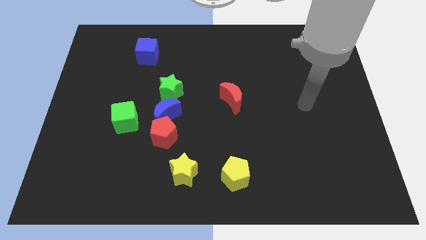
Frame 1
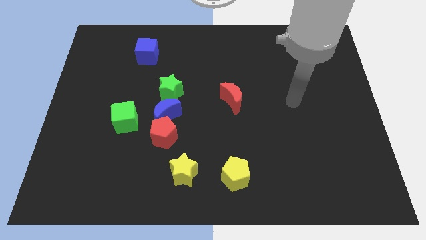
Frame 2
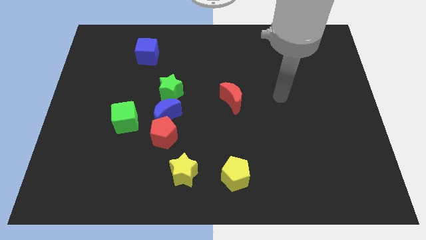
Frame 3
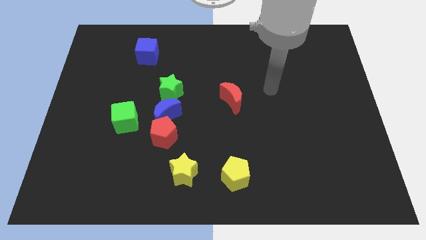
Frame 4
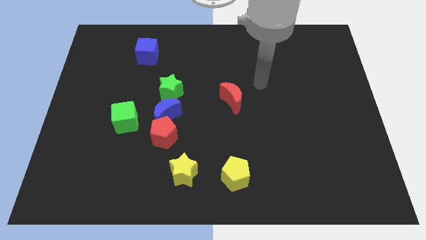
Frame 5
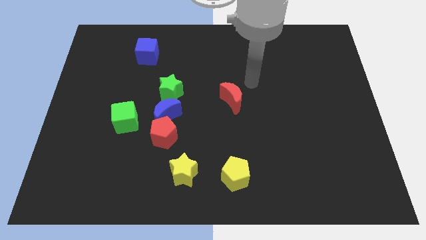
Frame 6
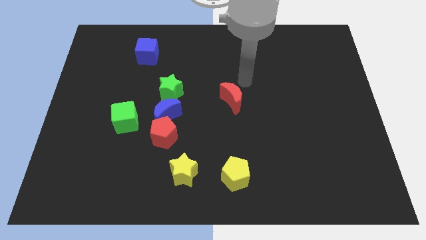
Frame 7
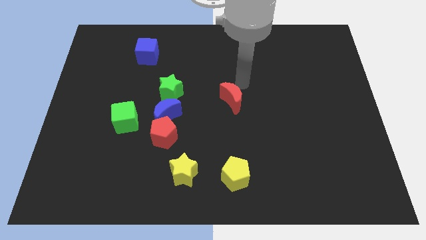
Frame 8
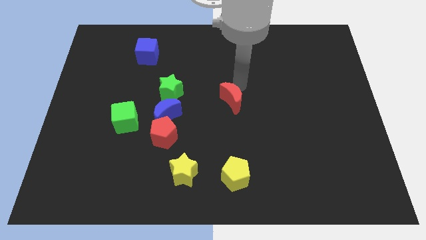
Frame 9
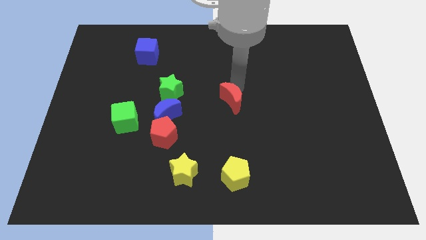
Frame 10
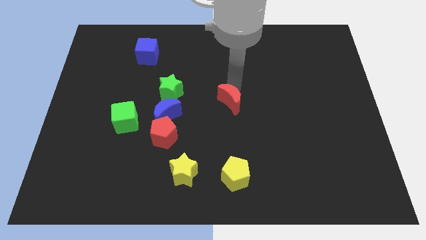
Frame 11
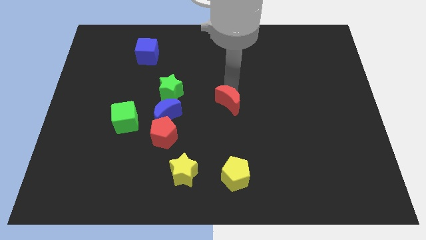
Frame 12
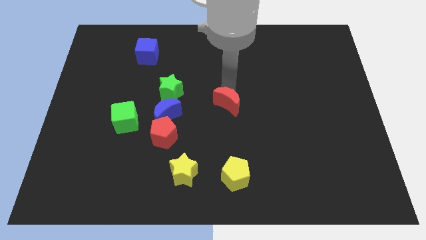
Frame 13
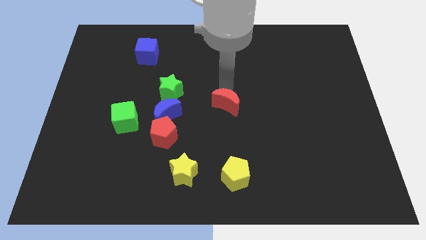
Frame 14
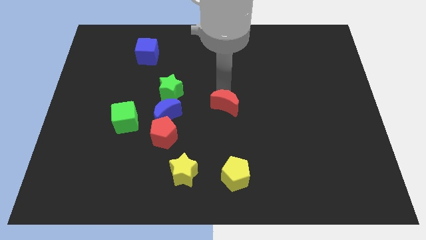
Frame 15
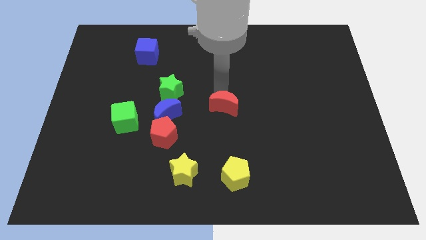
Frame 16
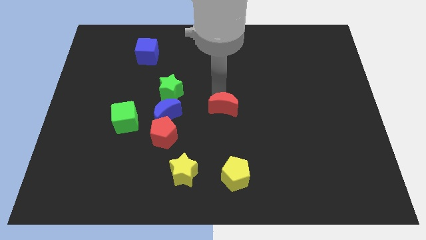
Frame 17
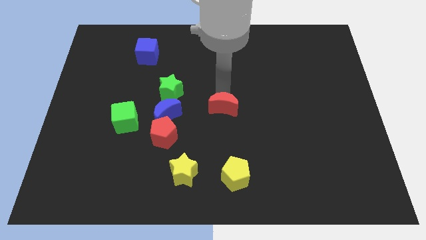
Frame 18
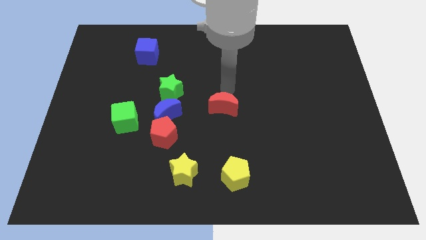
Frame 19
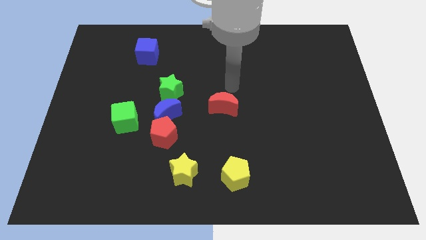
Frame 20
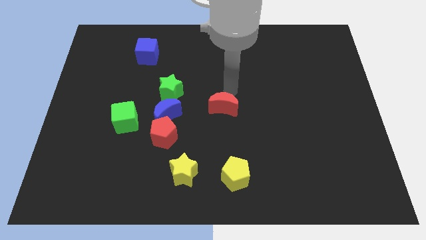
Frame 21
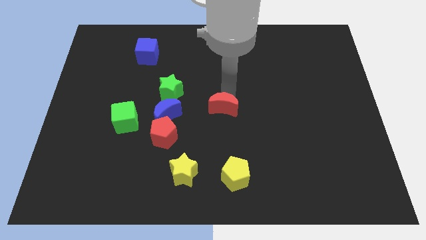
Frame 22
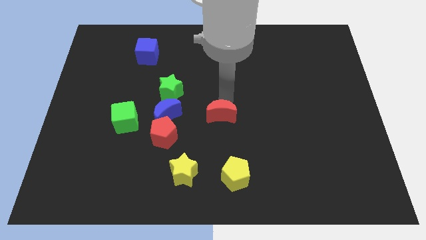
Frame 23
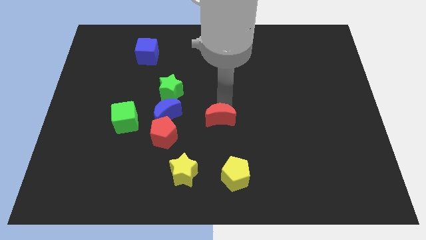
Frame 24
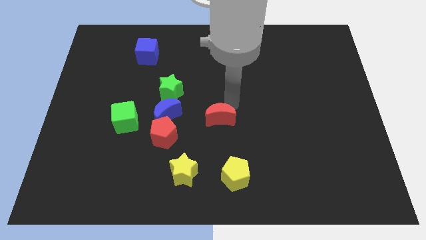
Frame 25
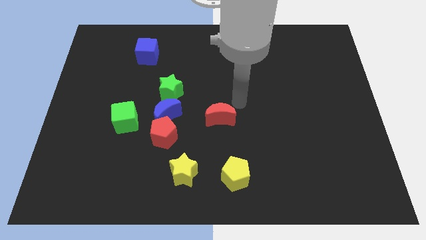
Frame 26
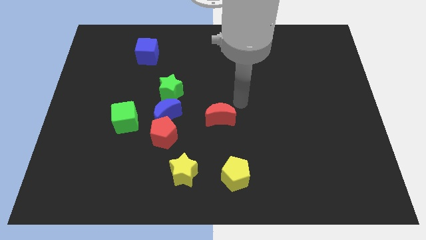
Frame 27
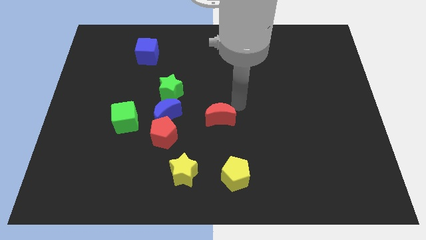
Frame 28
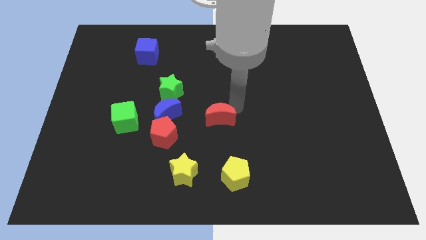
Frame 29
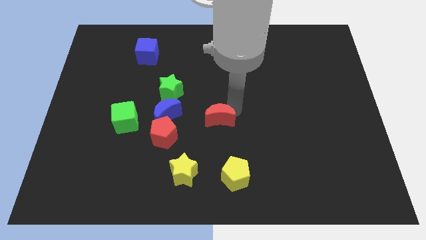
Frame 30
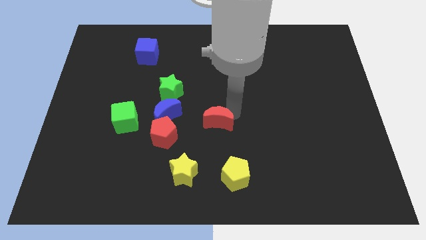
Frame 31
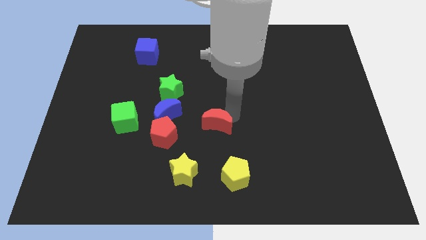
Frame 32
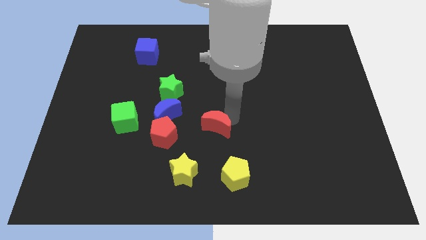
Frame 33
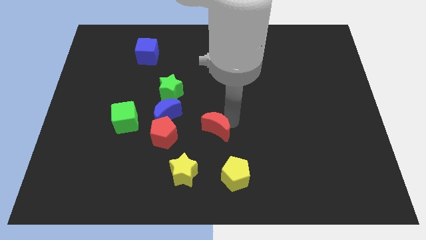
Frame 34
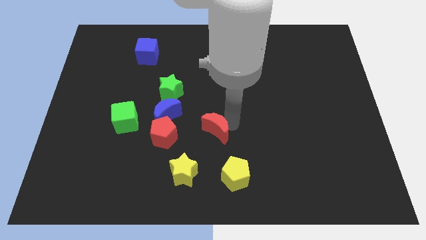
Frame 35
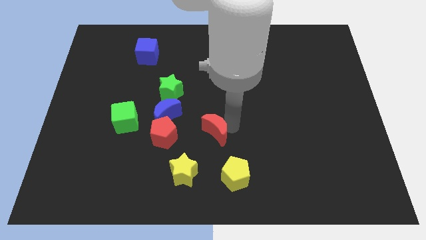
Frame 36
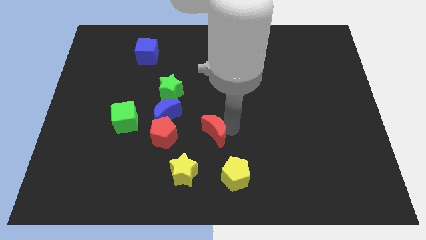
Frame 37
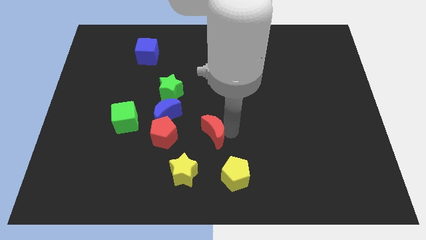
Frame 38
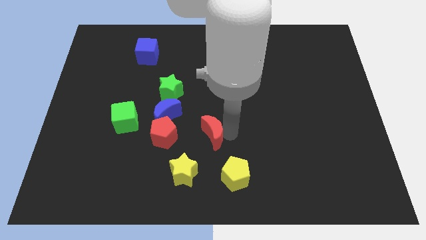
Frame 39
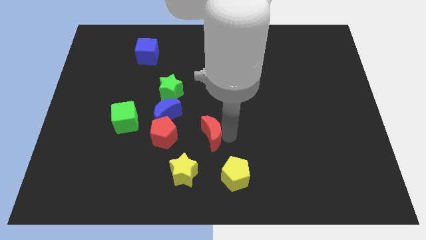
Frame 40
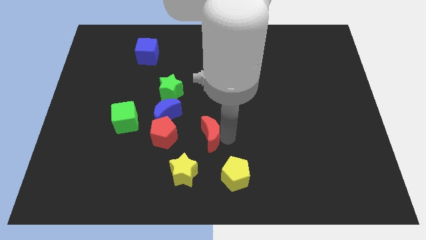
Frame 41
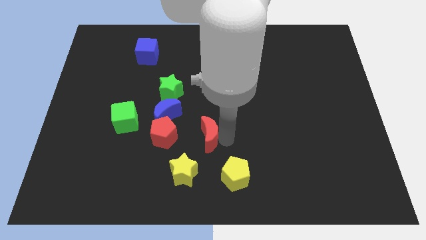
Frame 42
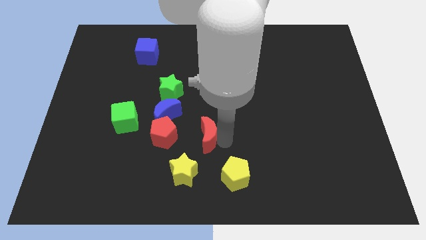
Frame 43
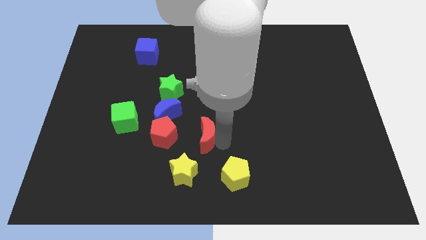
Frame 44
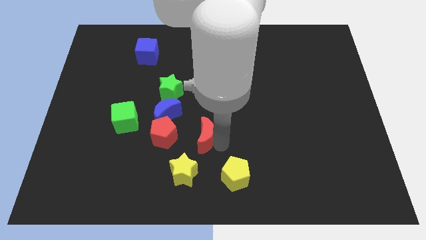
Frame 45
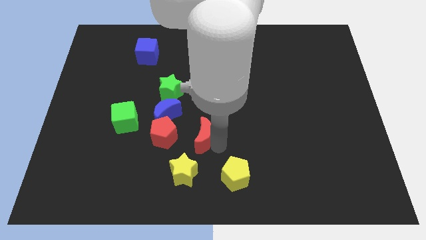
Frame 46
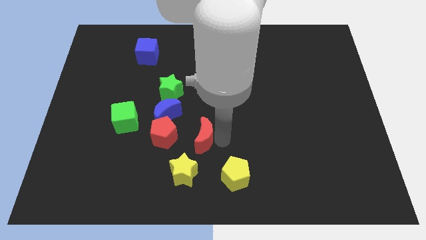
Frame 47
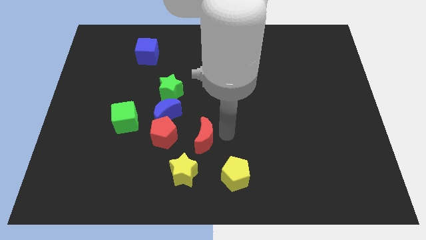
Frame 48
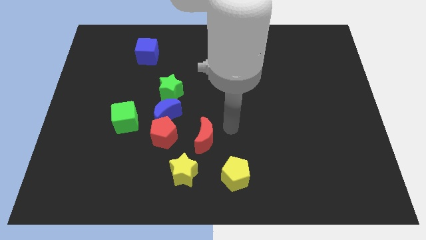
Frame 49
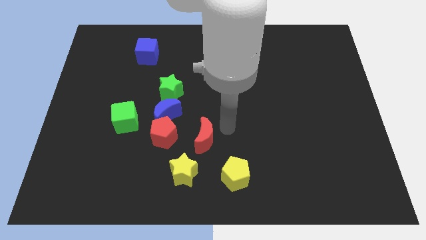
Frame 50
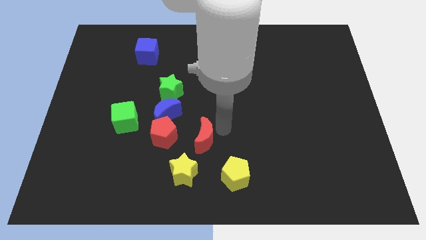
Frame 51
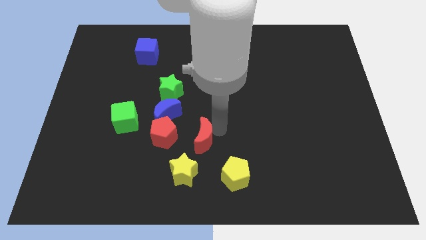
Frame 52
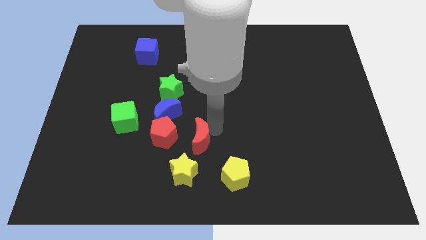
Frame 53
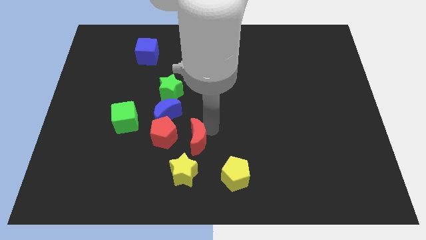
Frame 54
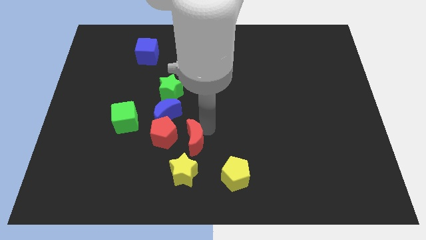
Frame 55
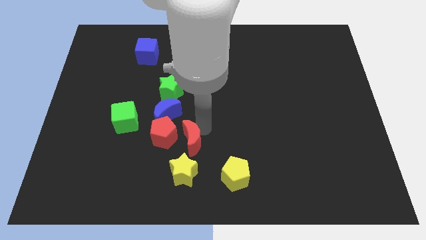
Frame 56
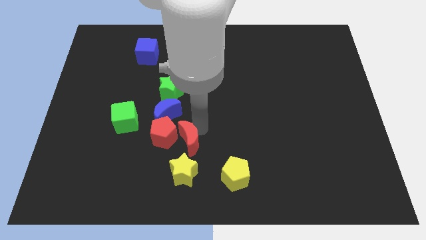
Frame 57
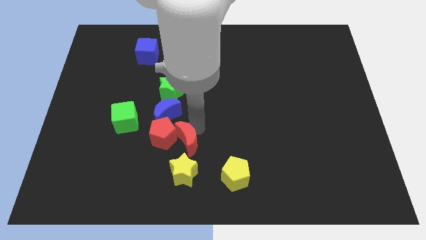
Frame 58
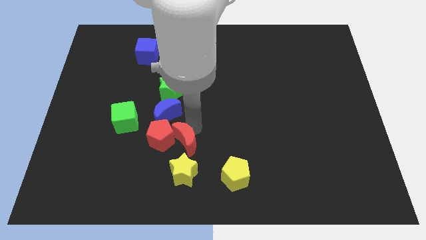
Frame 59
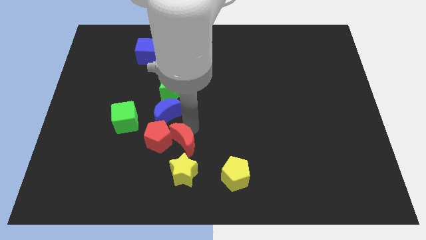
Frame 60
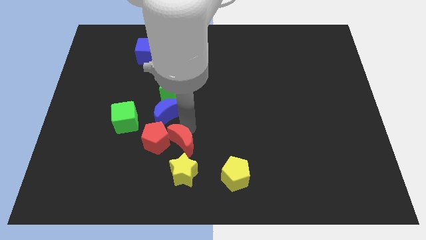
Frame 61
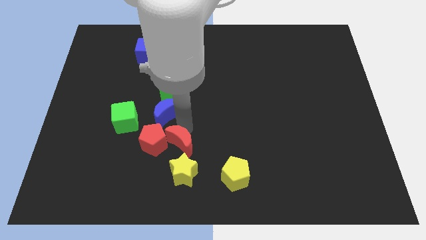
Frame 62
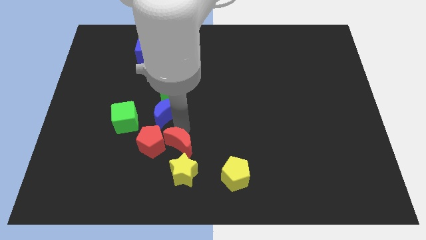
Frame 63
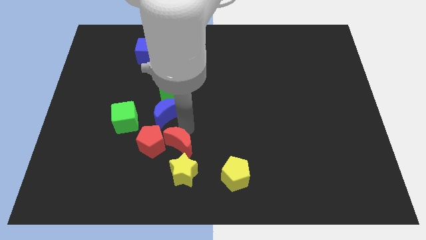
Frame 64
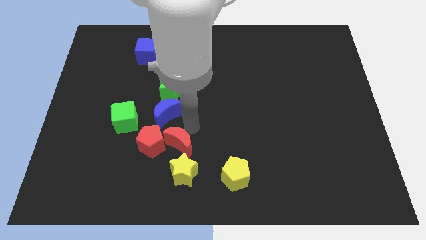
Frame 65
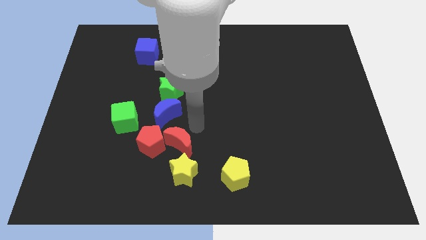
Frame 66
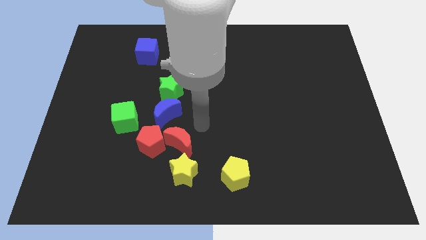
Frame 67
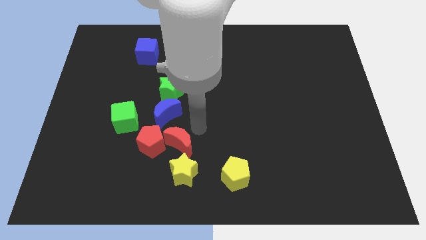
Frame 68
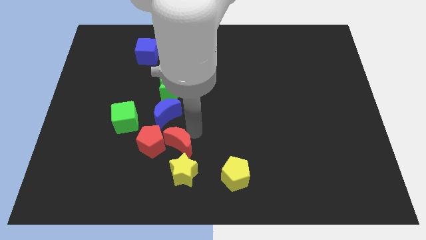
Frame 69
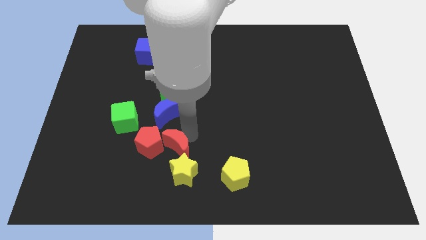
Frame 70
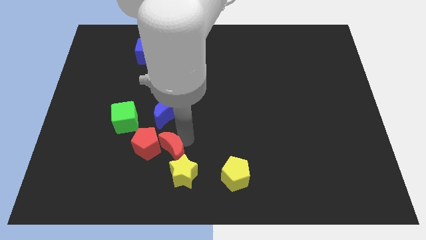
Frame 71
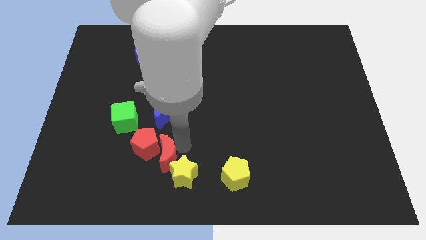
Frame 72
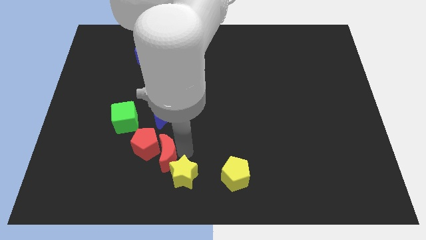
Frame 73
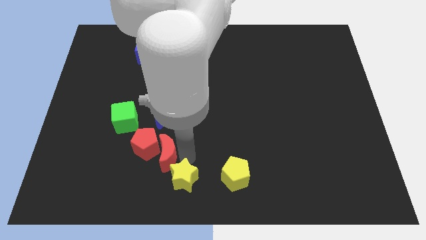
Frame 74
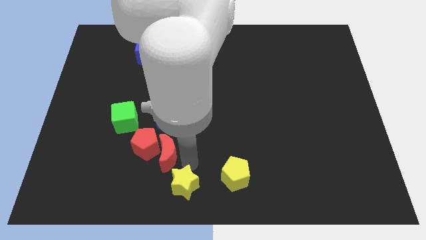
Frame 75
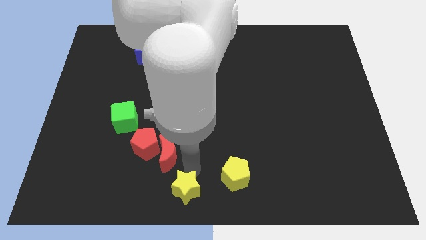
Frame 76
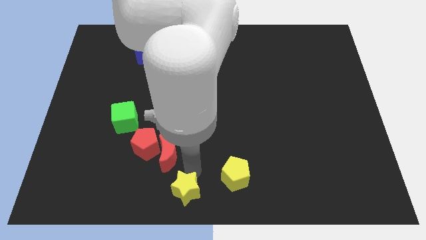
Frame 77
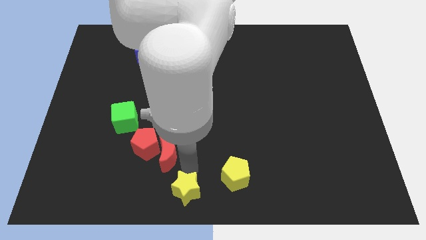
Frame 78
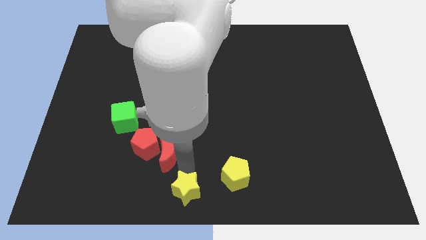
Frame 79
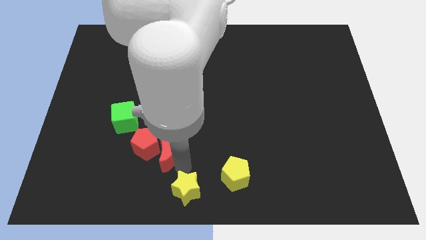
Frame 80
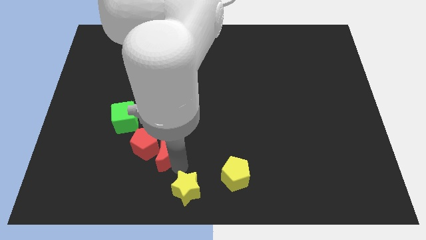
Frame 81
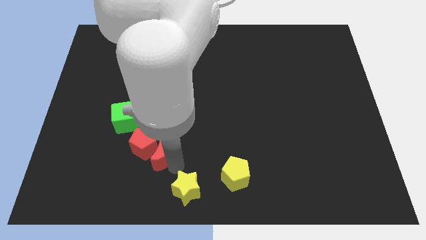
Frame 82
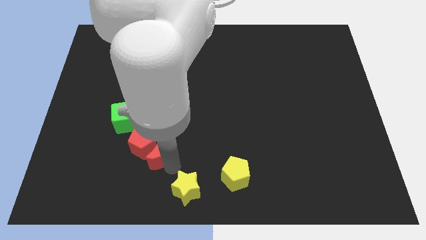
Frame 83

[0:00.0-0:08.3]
move the red moon to the bottom right side of the green cube
